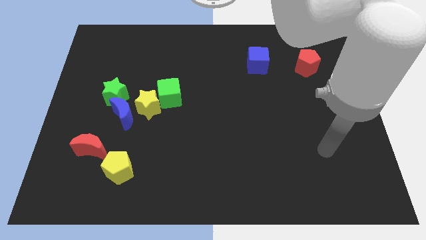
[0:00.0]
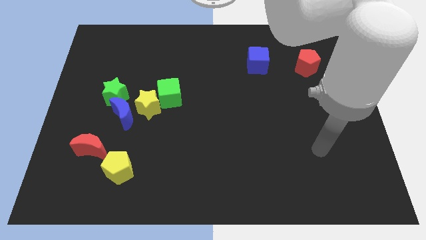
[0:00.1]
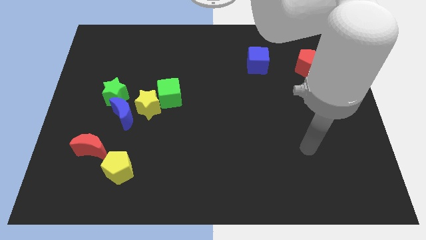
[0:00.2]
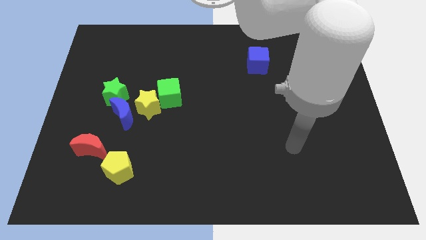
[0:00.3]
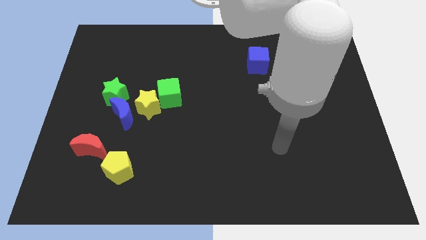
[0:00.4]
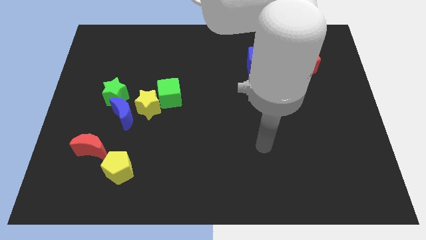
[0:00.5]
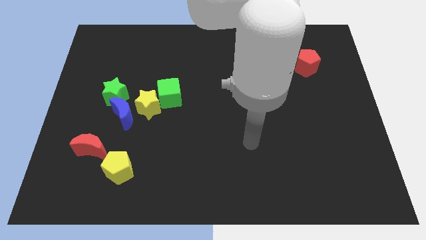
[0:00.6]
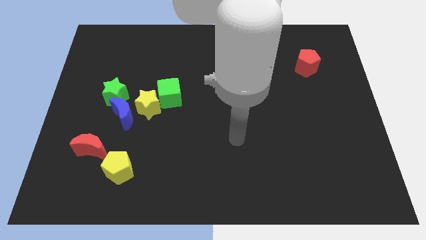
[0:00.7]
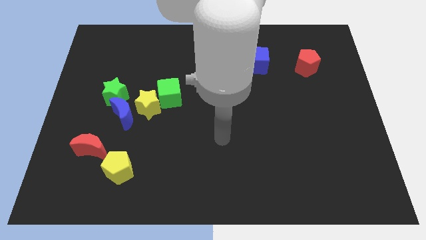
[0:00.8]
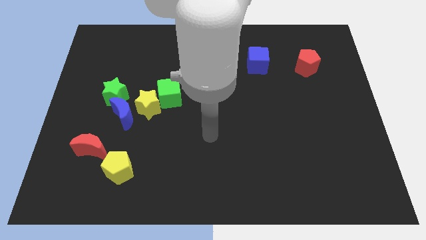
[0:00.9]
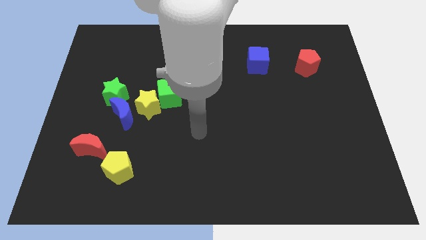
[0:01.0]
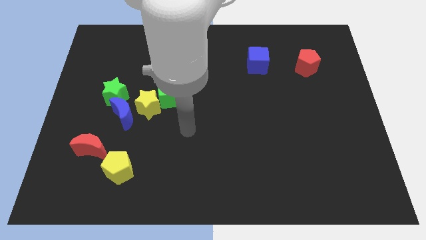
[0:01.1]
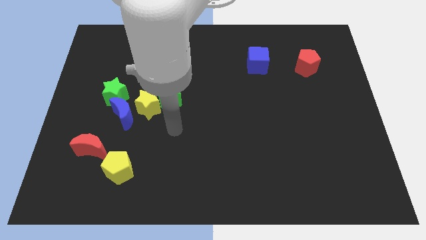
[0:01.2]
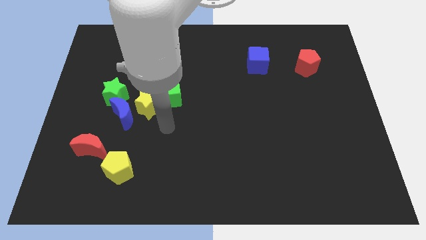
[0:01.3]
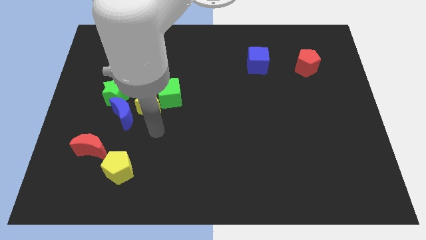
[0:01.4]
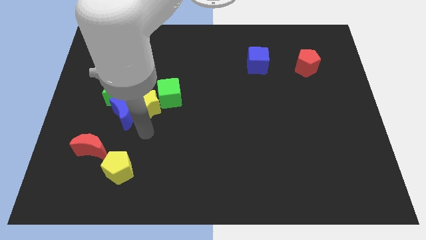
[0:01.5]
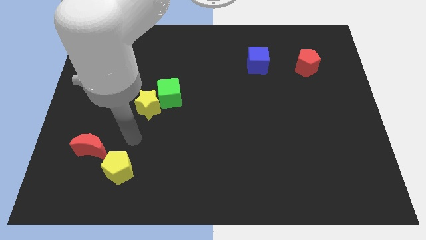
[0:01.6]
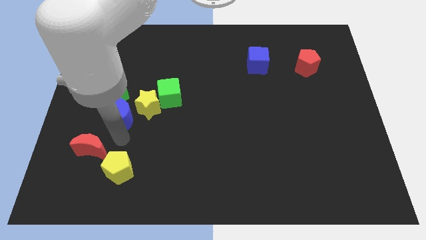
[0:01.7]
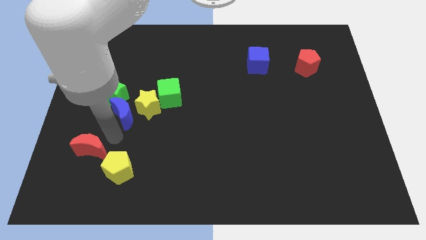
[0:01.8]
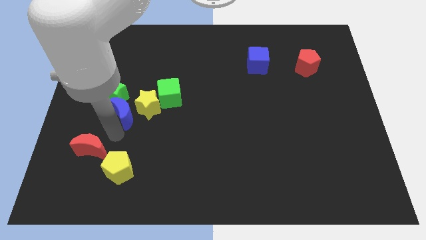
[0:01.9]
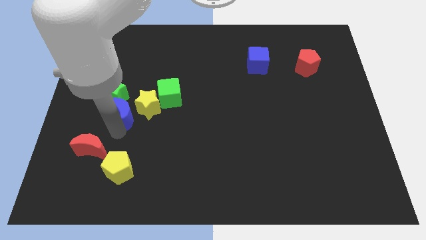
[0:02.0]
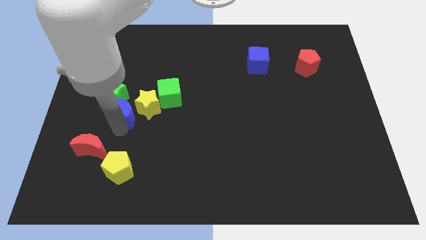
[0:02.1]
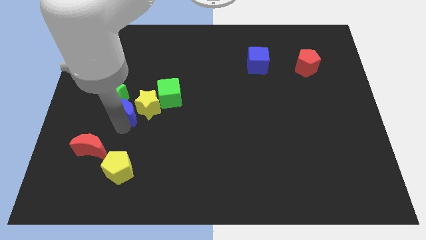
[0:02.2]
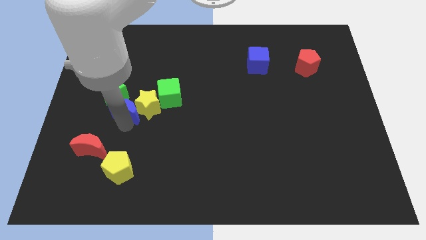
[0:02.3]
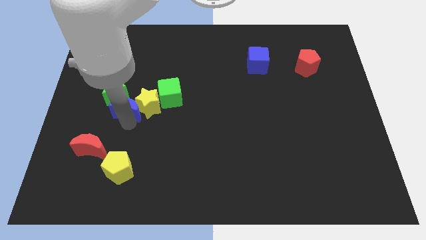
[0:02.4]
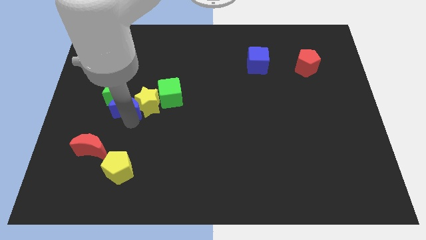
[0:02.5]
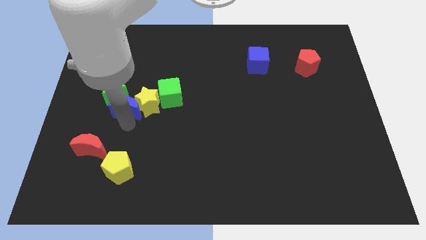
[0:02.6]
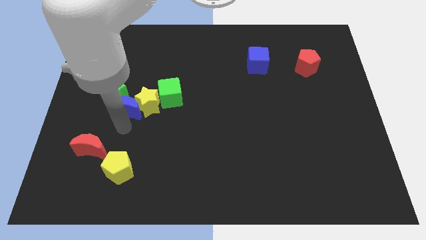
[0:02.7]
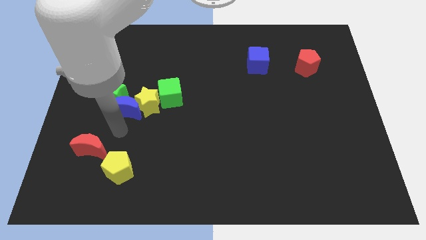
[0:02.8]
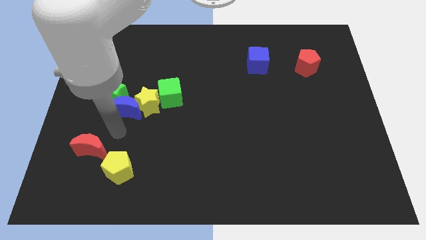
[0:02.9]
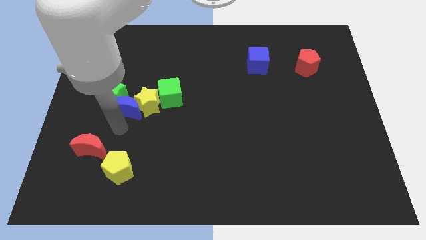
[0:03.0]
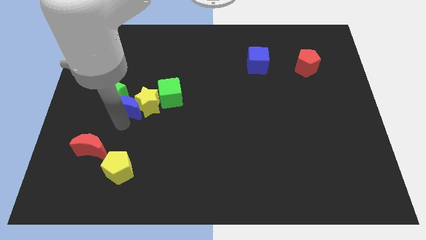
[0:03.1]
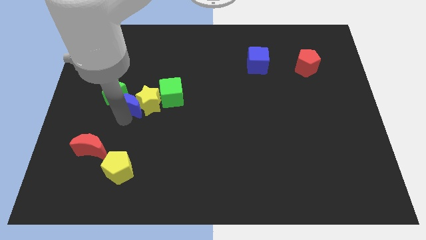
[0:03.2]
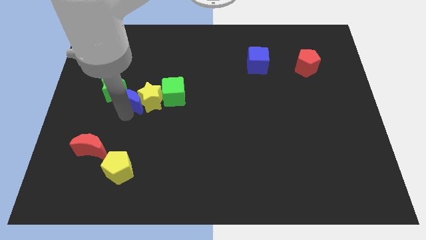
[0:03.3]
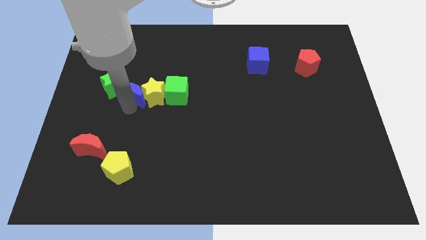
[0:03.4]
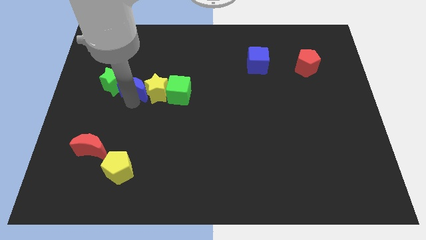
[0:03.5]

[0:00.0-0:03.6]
slightly move the blue moon up

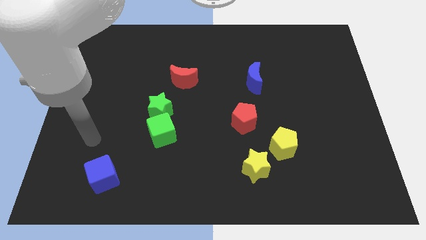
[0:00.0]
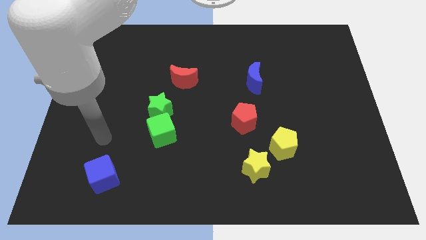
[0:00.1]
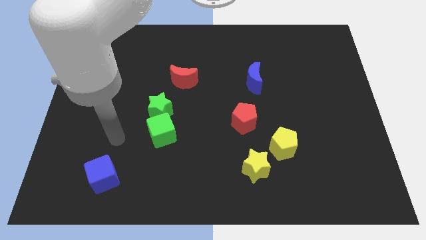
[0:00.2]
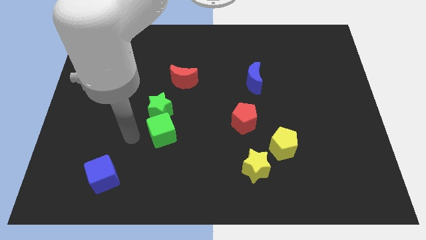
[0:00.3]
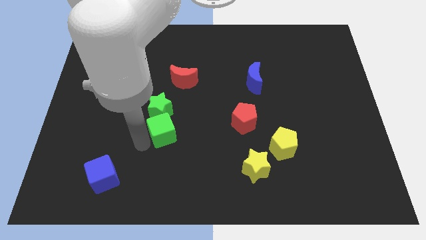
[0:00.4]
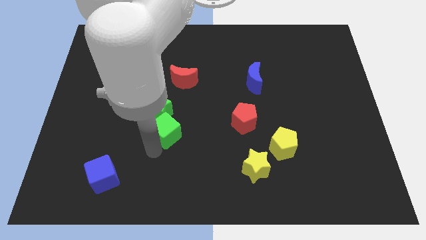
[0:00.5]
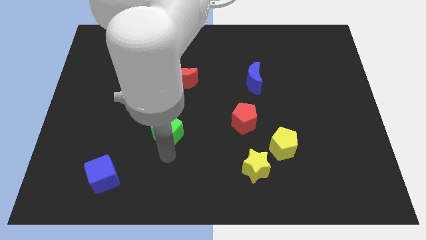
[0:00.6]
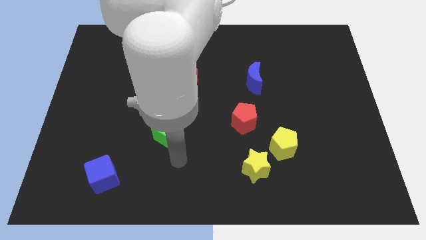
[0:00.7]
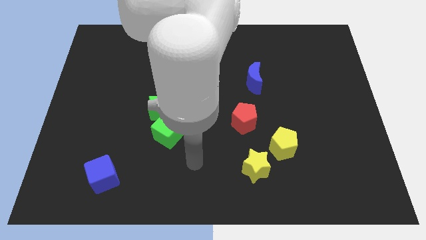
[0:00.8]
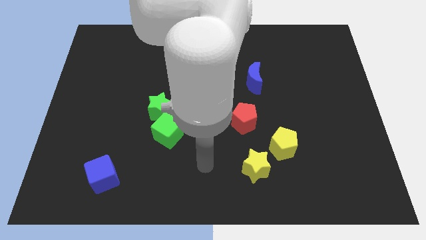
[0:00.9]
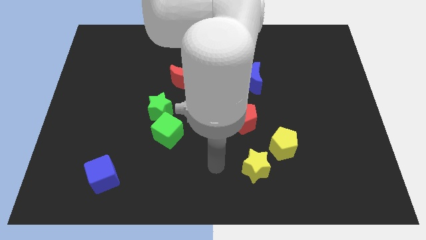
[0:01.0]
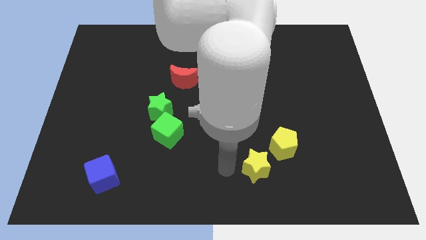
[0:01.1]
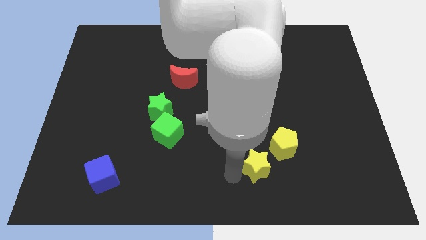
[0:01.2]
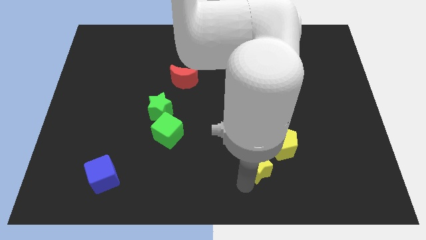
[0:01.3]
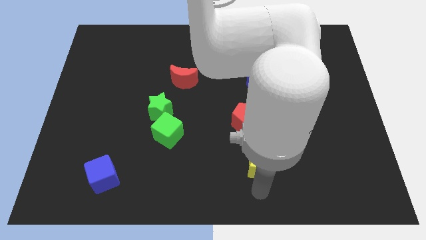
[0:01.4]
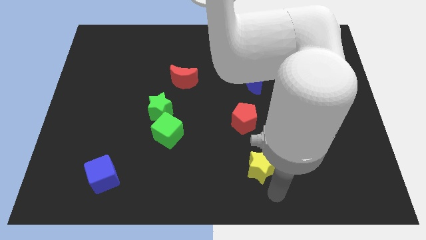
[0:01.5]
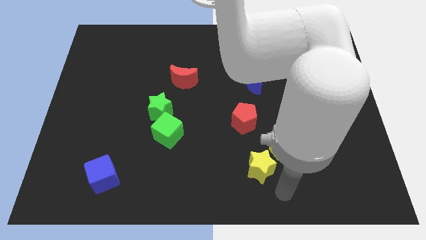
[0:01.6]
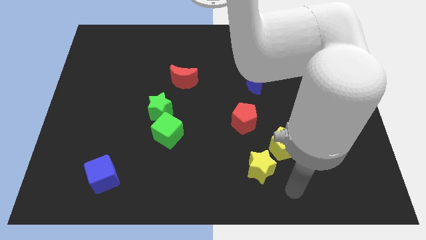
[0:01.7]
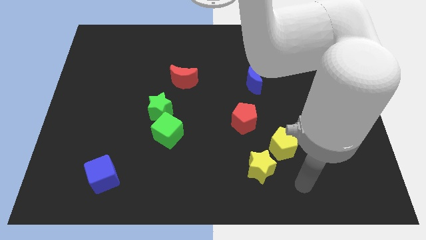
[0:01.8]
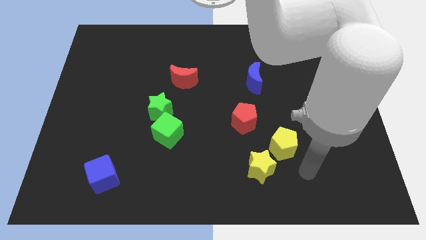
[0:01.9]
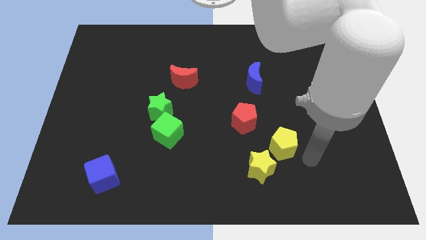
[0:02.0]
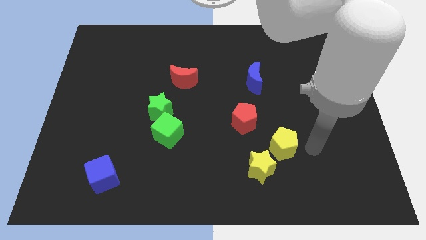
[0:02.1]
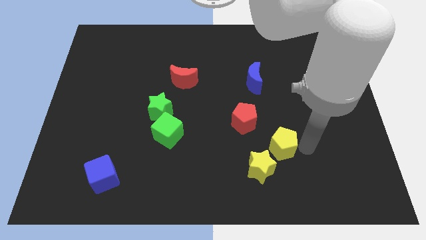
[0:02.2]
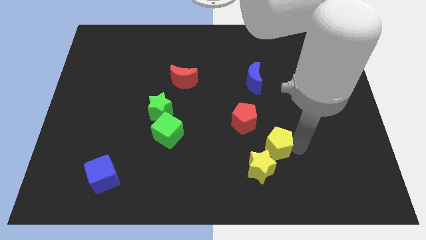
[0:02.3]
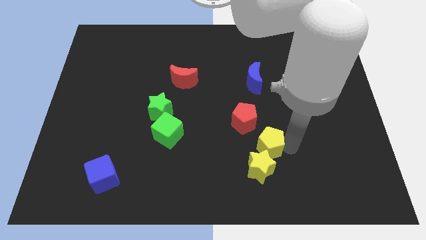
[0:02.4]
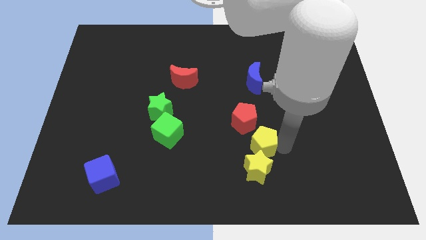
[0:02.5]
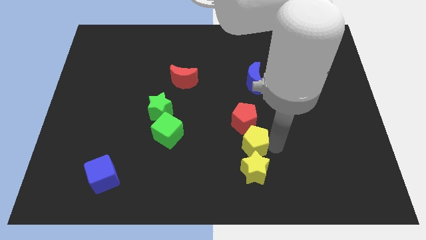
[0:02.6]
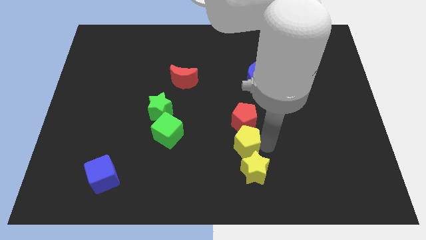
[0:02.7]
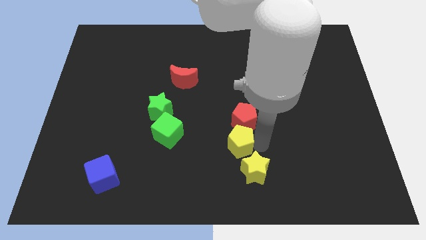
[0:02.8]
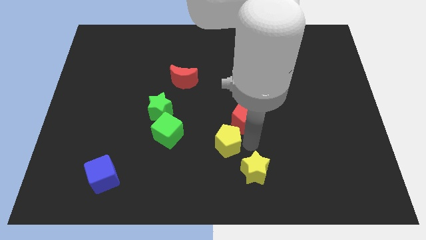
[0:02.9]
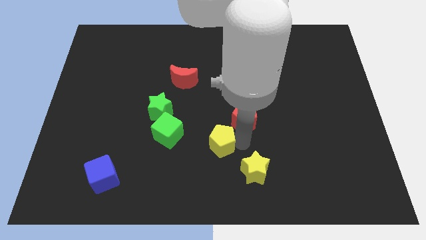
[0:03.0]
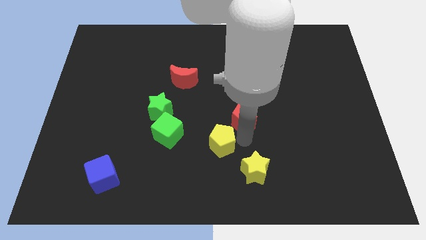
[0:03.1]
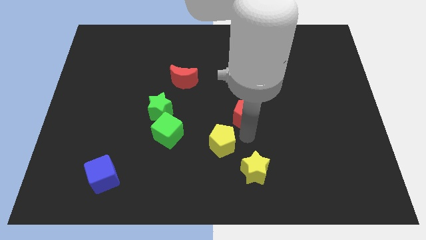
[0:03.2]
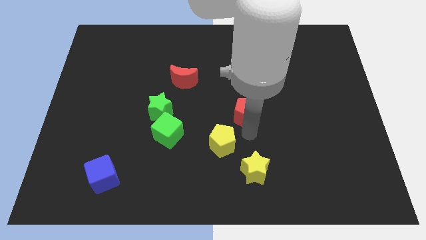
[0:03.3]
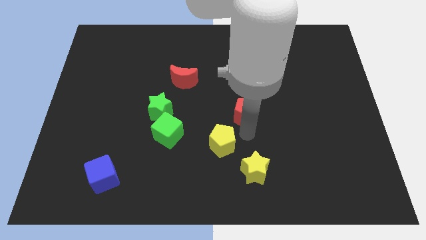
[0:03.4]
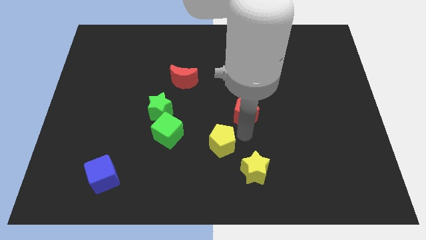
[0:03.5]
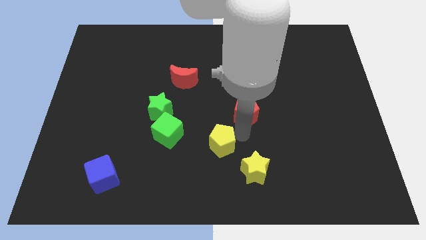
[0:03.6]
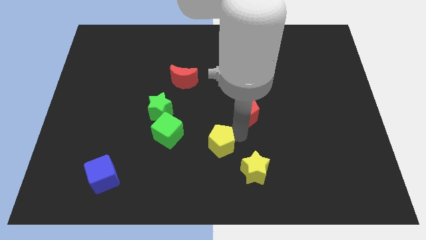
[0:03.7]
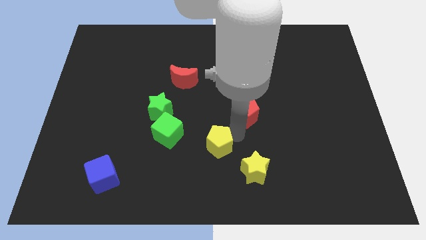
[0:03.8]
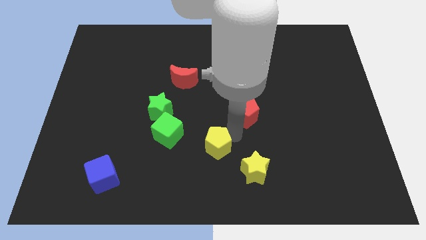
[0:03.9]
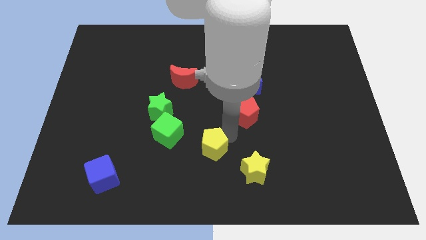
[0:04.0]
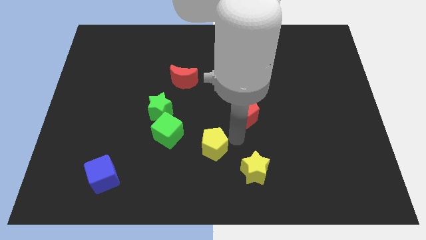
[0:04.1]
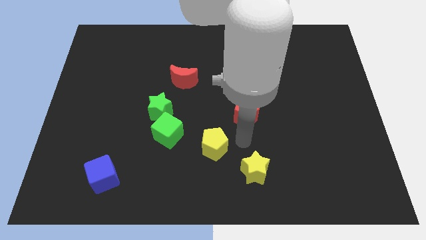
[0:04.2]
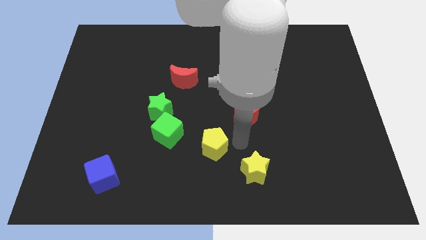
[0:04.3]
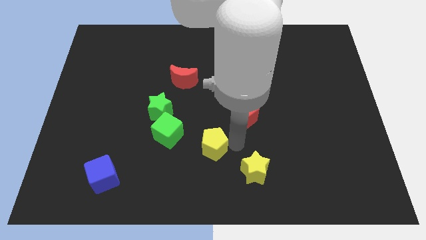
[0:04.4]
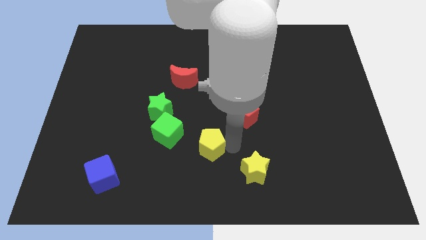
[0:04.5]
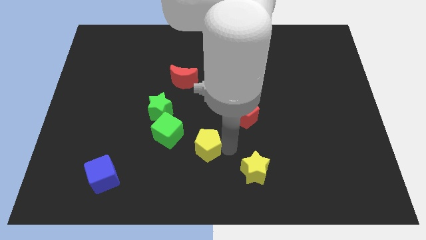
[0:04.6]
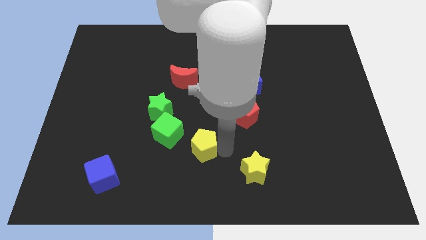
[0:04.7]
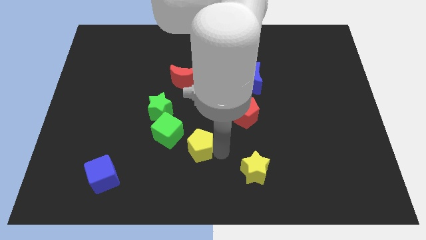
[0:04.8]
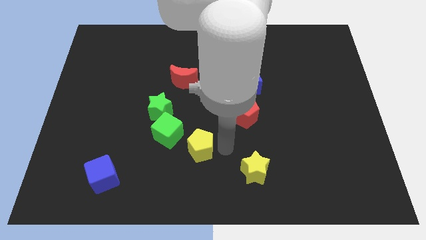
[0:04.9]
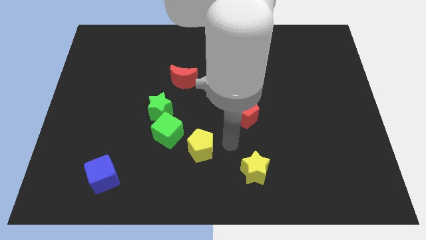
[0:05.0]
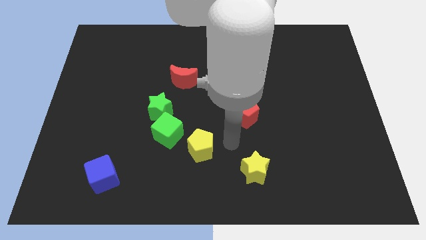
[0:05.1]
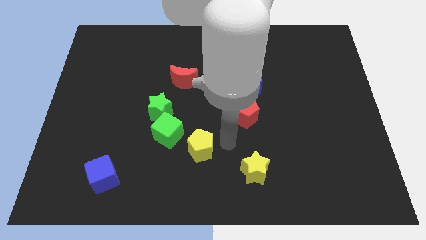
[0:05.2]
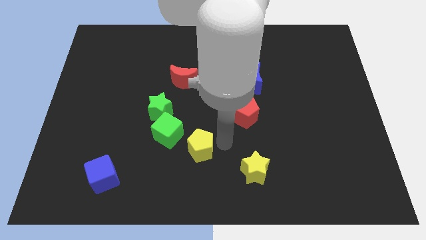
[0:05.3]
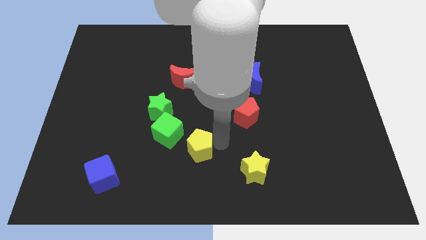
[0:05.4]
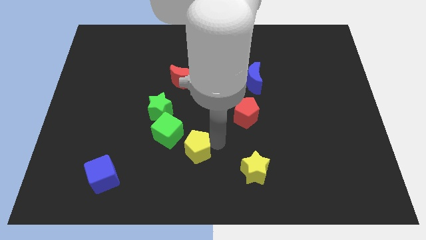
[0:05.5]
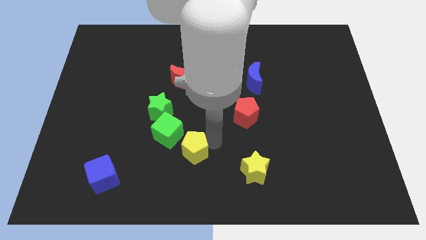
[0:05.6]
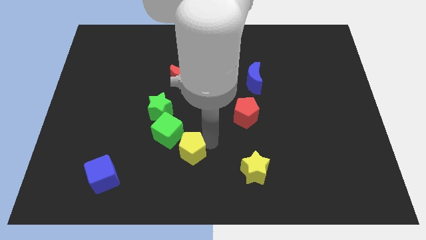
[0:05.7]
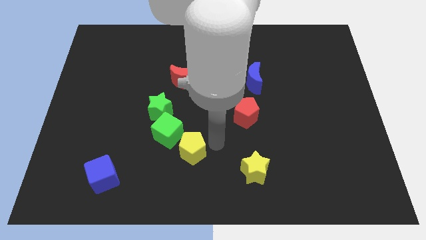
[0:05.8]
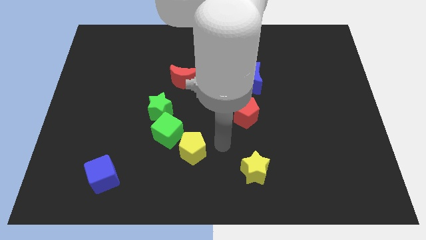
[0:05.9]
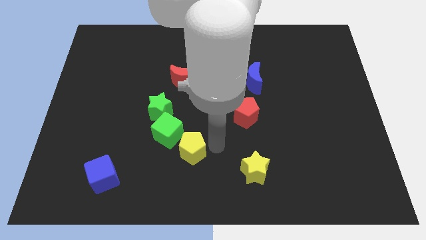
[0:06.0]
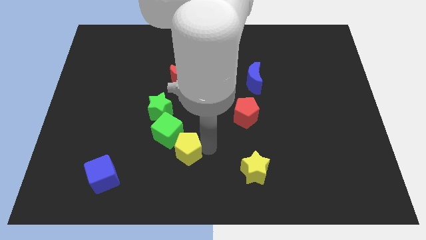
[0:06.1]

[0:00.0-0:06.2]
move the yellow pentagon left
